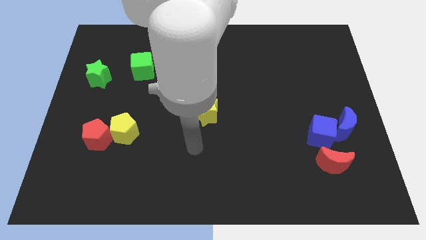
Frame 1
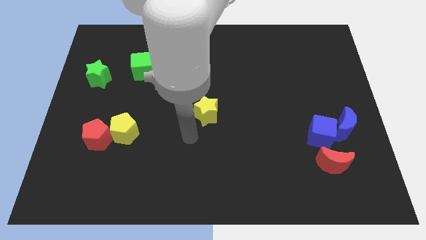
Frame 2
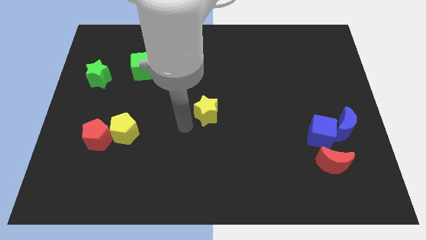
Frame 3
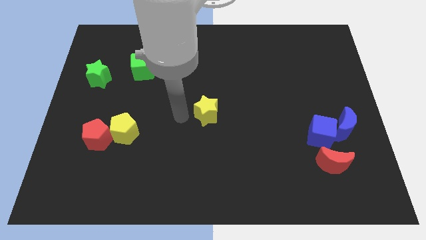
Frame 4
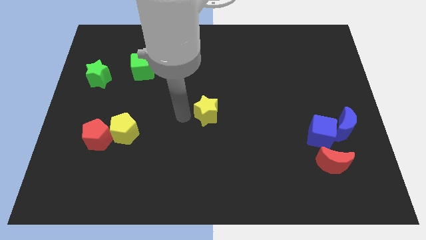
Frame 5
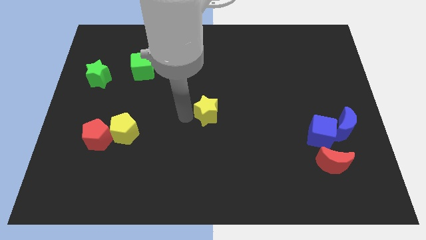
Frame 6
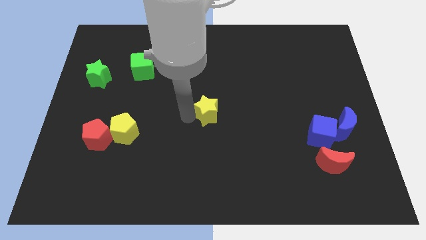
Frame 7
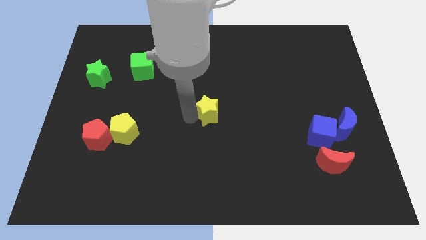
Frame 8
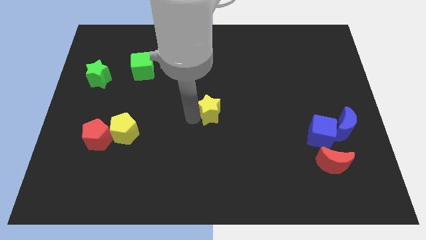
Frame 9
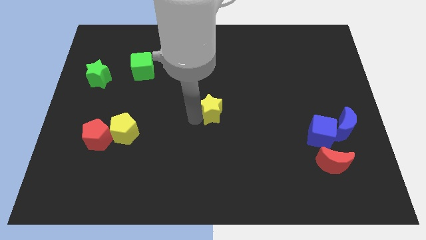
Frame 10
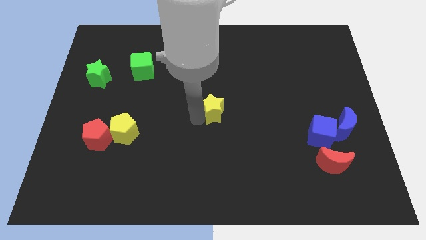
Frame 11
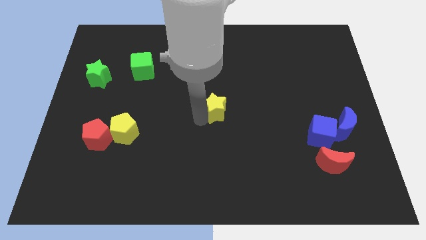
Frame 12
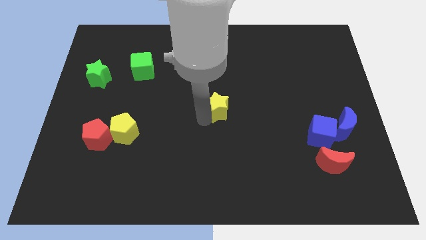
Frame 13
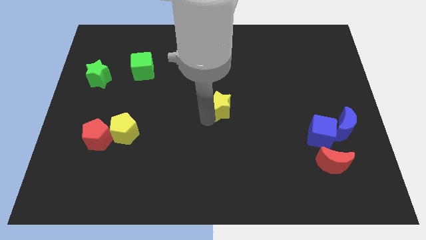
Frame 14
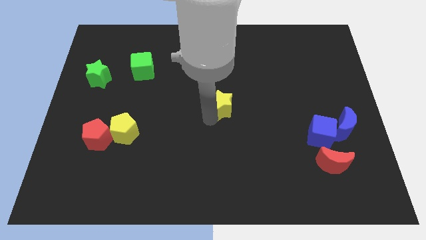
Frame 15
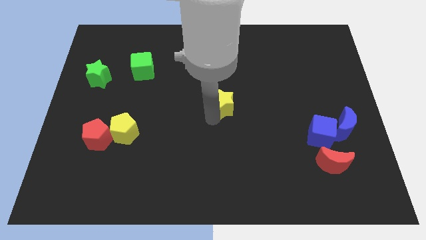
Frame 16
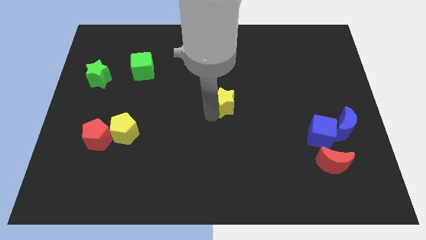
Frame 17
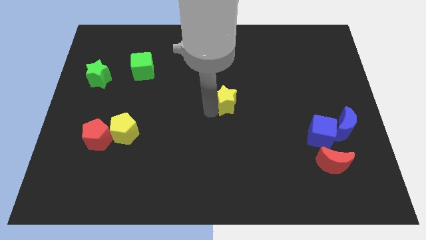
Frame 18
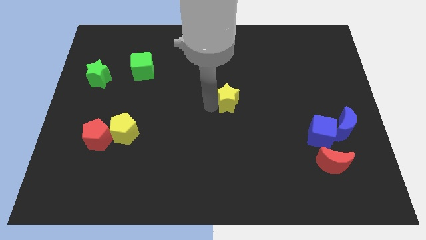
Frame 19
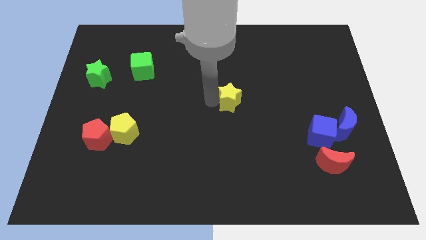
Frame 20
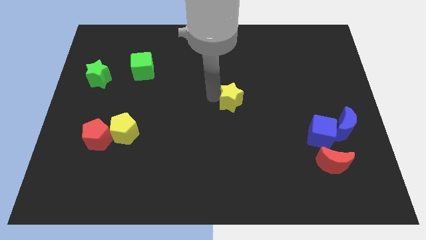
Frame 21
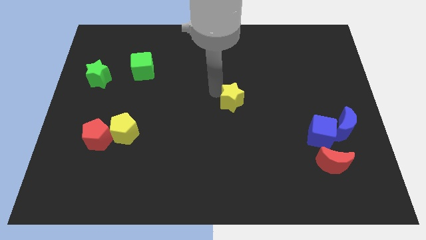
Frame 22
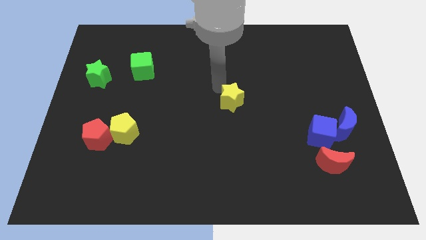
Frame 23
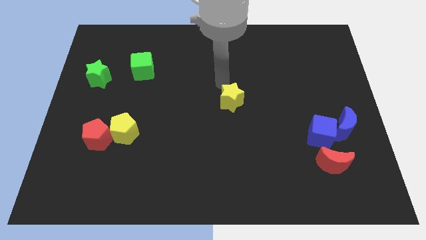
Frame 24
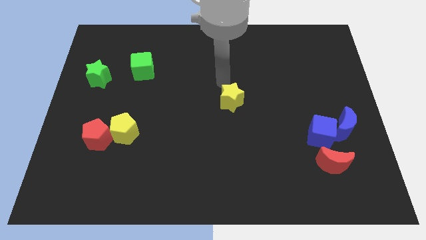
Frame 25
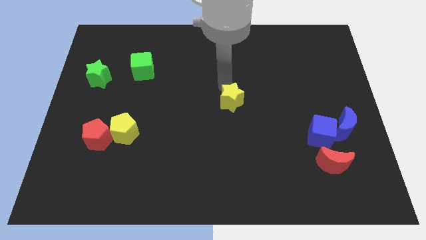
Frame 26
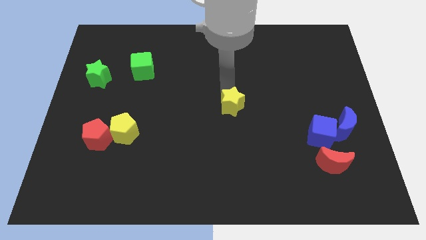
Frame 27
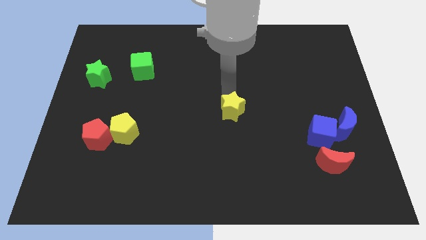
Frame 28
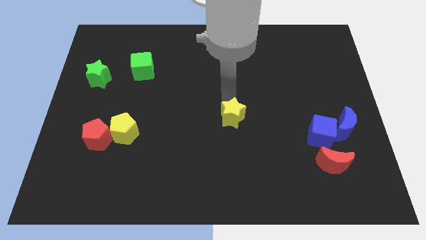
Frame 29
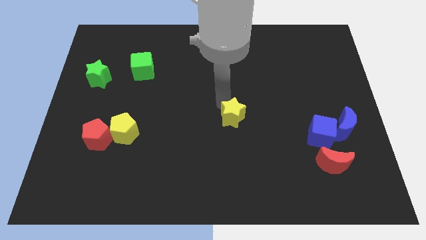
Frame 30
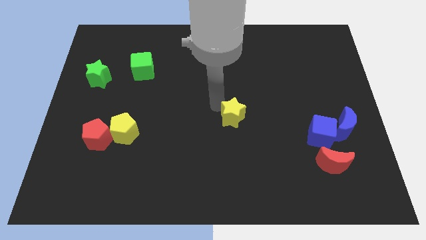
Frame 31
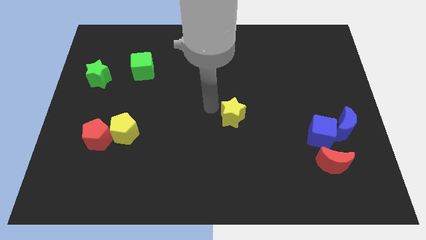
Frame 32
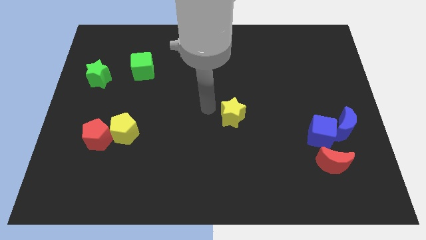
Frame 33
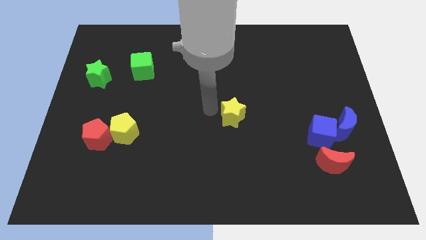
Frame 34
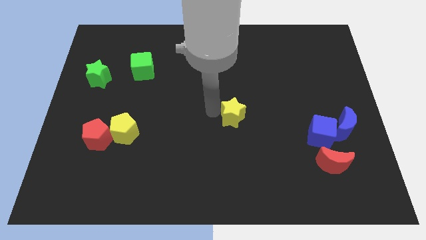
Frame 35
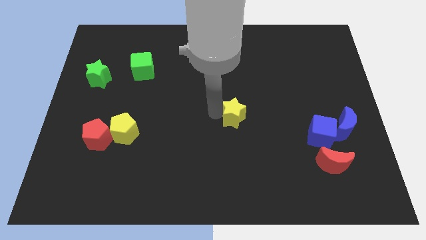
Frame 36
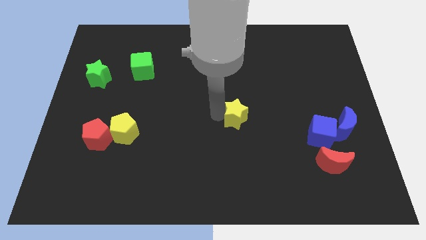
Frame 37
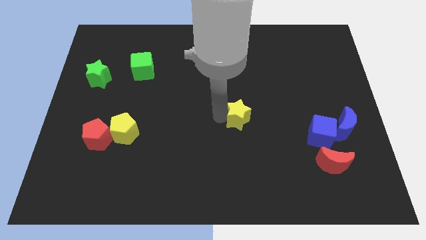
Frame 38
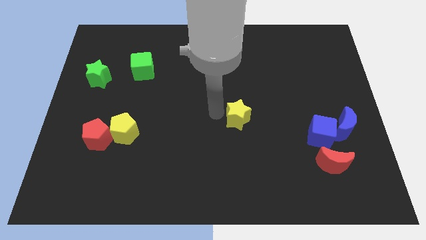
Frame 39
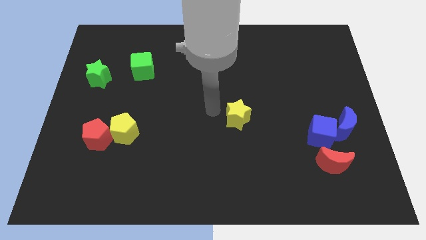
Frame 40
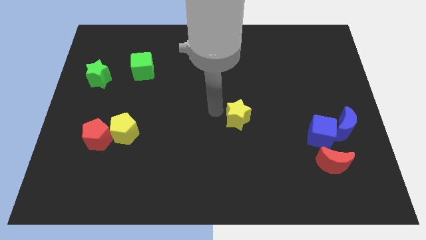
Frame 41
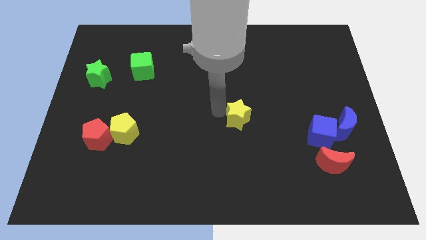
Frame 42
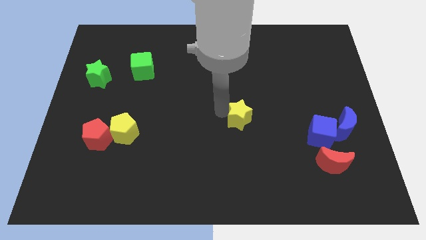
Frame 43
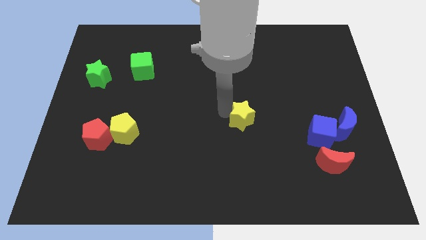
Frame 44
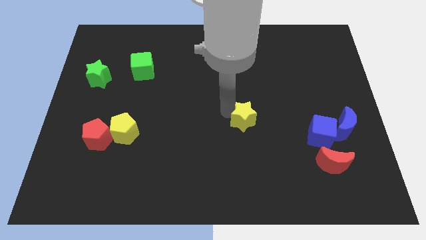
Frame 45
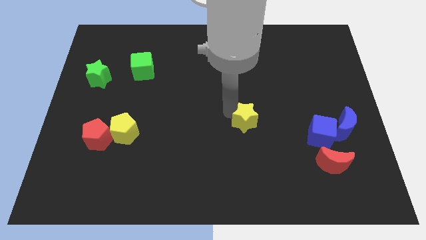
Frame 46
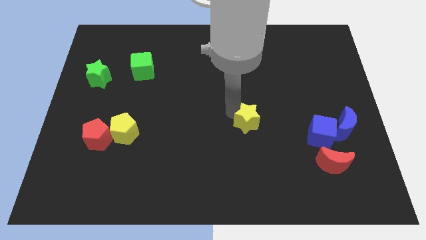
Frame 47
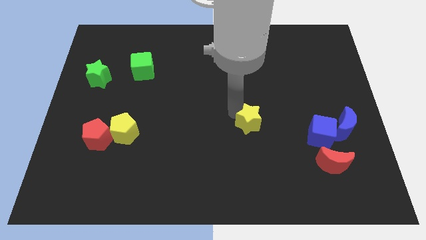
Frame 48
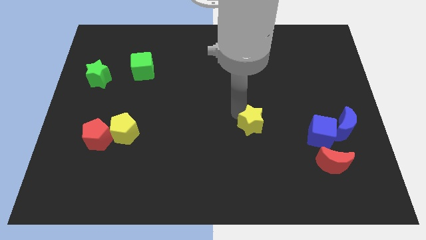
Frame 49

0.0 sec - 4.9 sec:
push the yellow star left of the blue cube

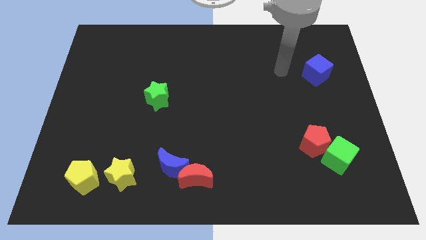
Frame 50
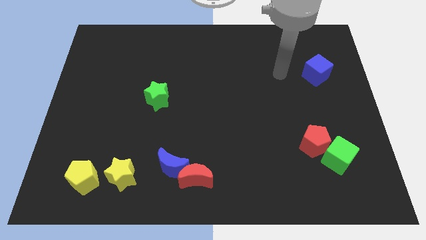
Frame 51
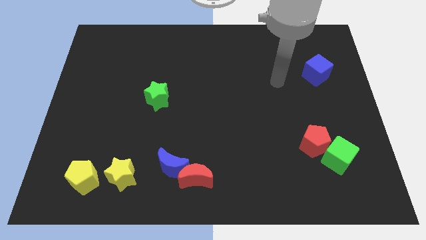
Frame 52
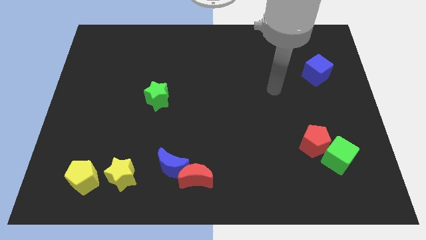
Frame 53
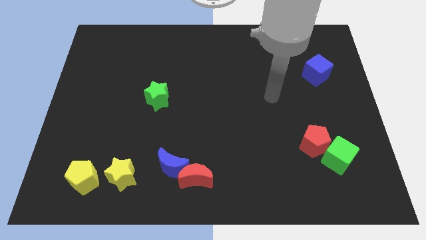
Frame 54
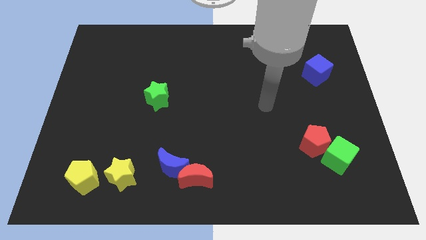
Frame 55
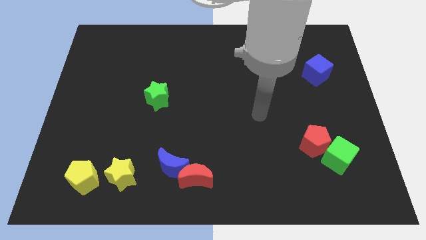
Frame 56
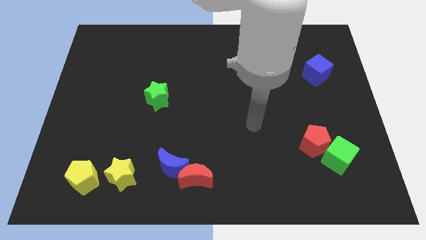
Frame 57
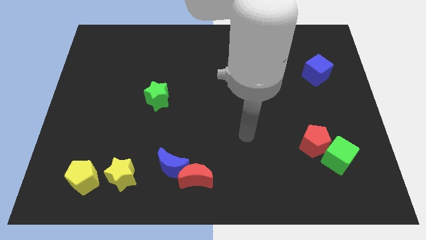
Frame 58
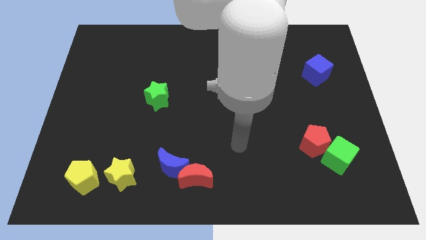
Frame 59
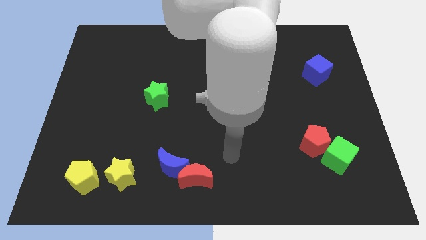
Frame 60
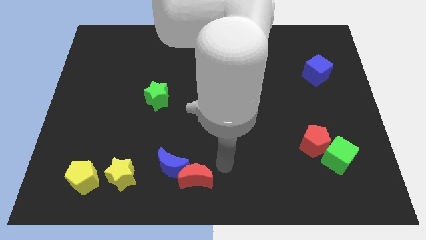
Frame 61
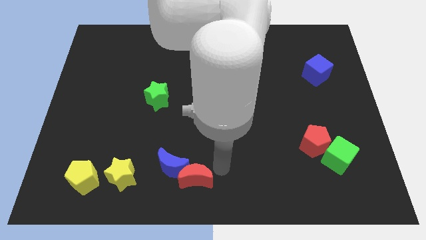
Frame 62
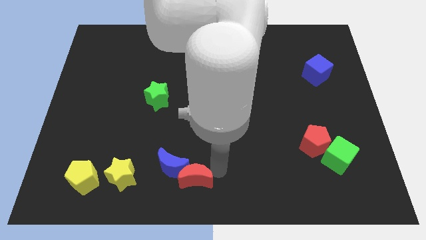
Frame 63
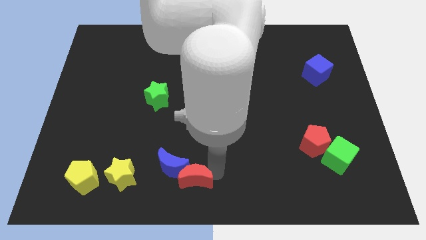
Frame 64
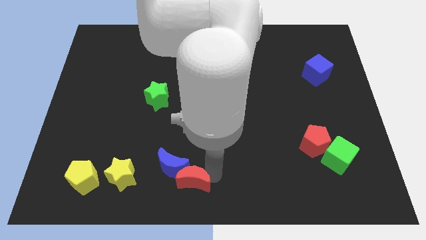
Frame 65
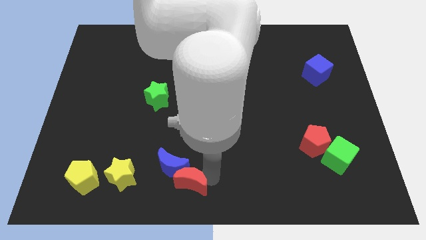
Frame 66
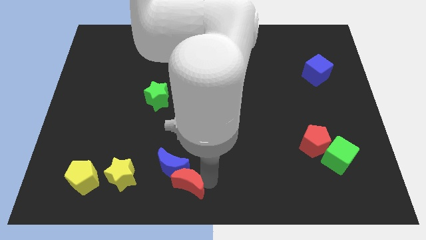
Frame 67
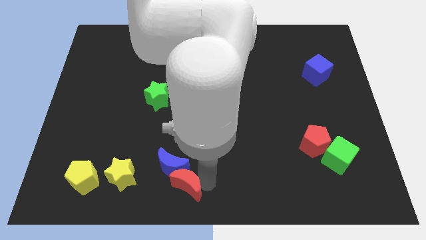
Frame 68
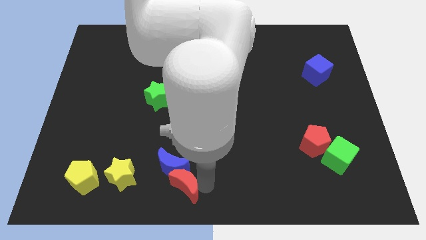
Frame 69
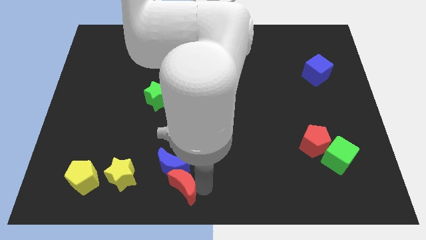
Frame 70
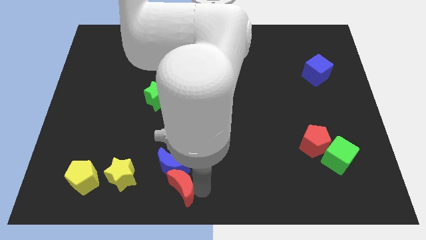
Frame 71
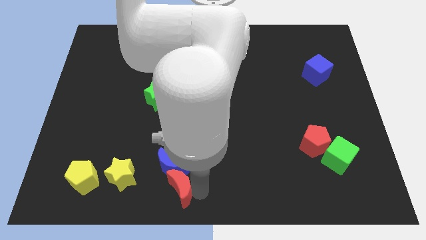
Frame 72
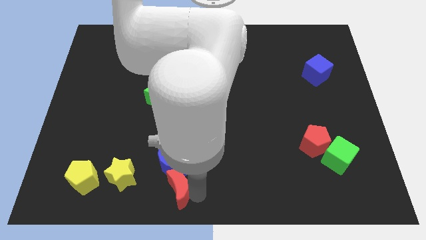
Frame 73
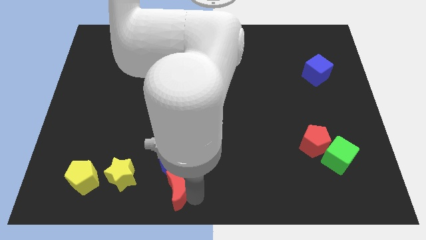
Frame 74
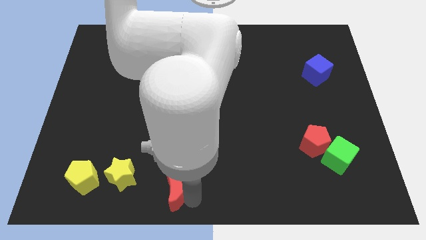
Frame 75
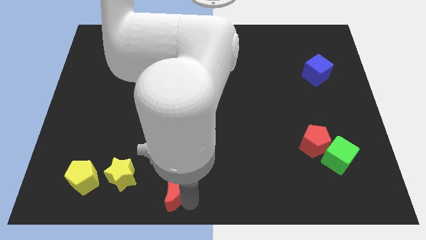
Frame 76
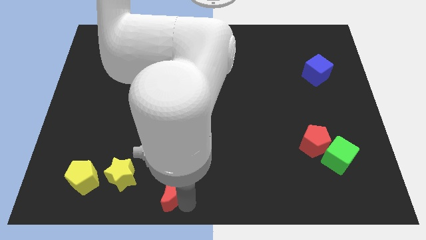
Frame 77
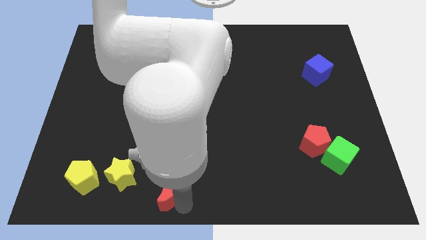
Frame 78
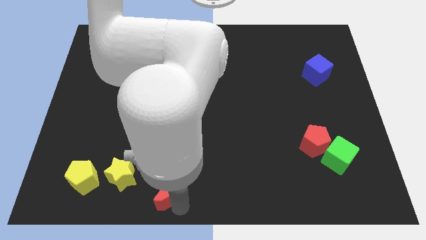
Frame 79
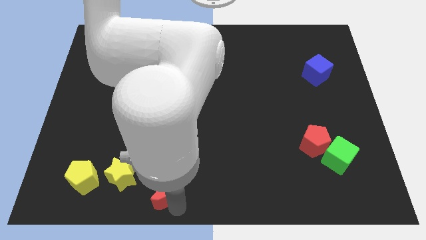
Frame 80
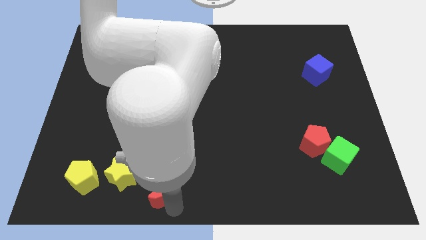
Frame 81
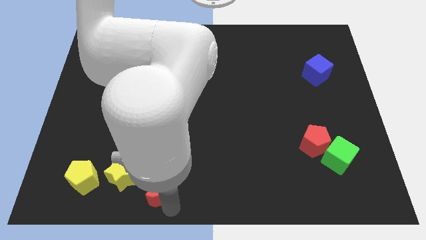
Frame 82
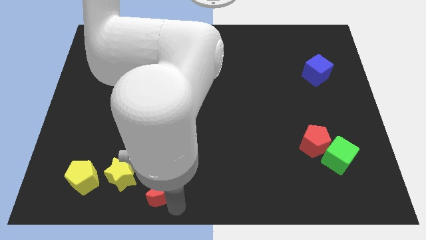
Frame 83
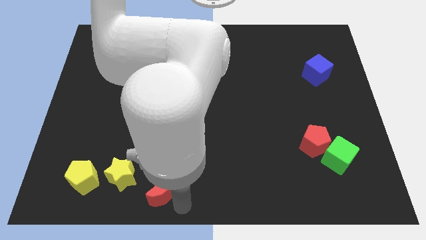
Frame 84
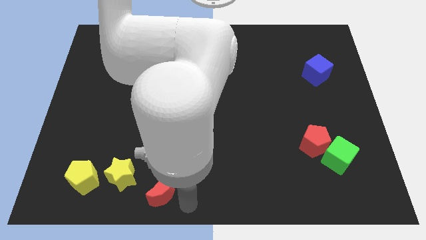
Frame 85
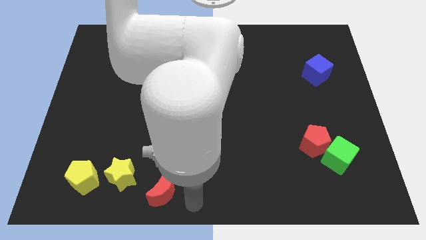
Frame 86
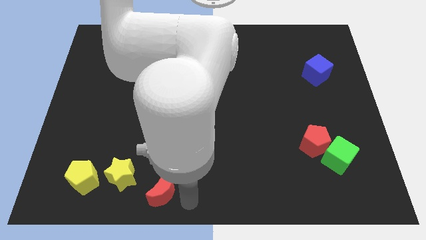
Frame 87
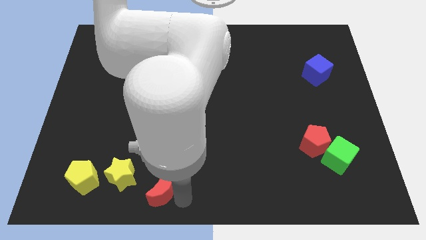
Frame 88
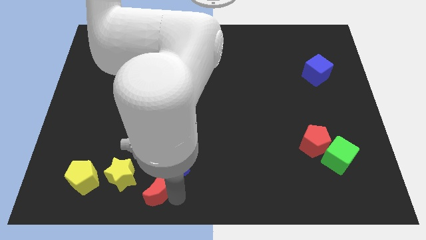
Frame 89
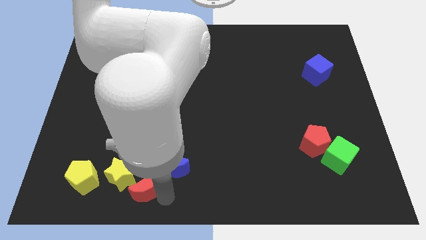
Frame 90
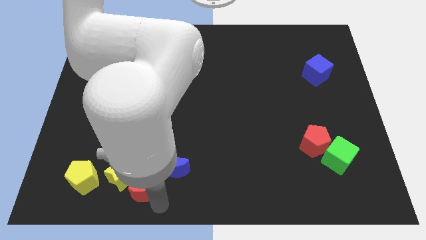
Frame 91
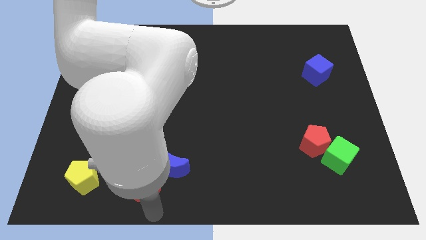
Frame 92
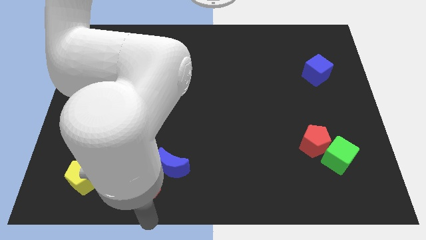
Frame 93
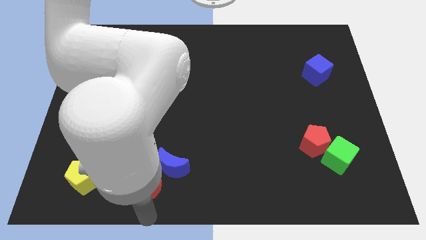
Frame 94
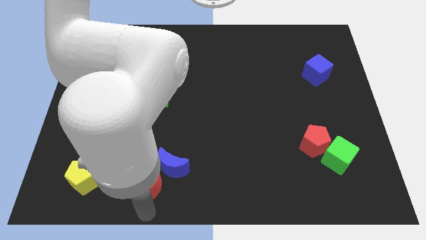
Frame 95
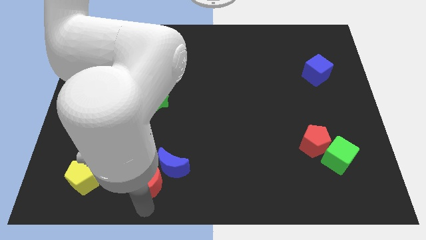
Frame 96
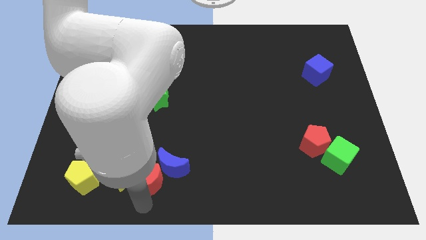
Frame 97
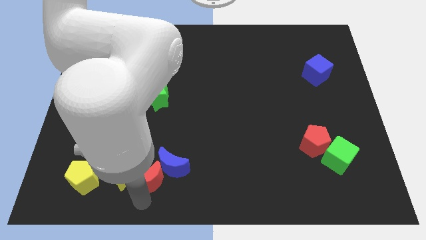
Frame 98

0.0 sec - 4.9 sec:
slide the red moon to the top right side of the yellow star
